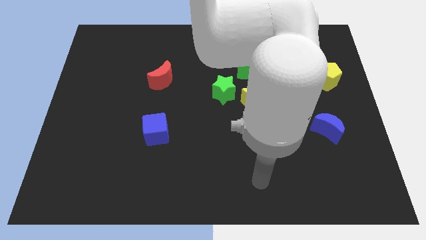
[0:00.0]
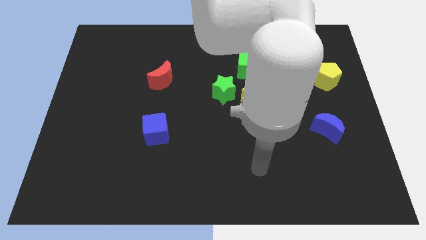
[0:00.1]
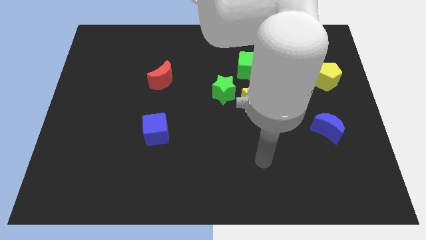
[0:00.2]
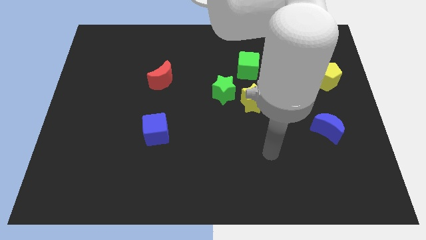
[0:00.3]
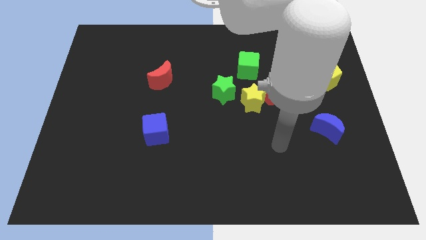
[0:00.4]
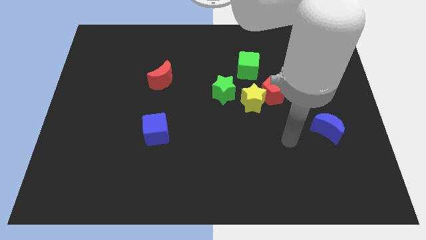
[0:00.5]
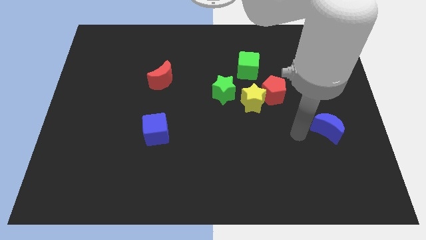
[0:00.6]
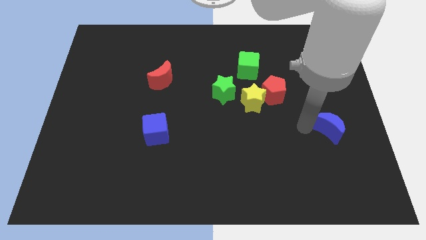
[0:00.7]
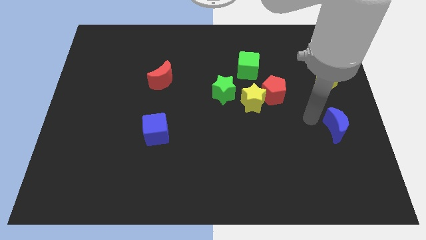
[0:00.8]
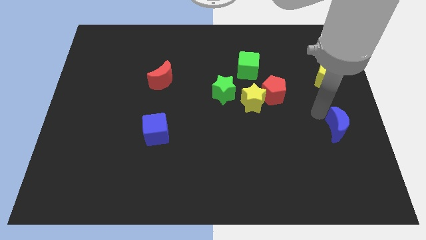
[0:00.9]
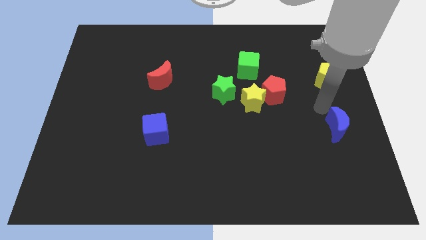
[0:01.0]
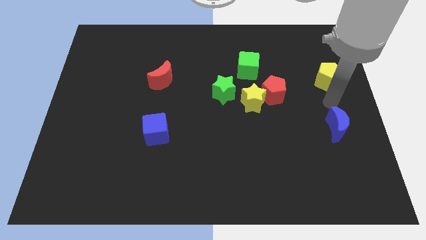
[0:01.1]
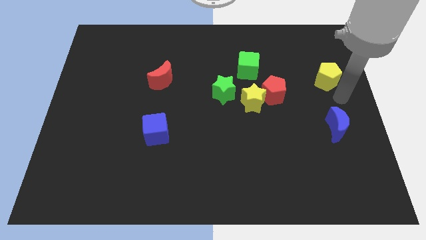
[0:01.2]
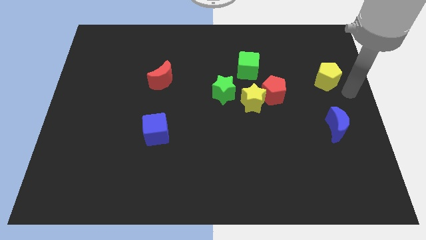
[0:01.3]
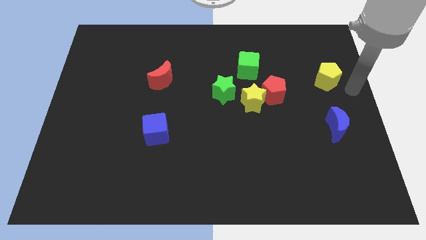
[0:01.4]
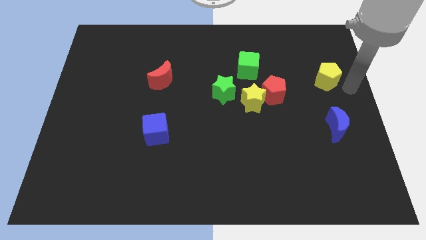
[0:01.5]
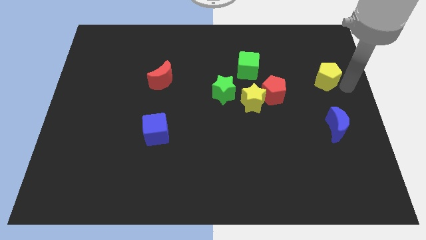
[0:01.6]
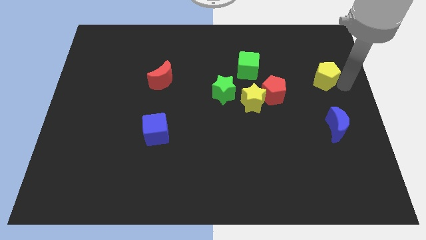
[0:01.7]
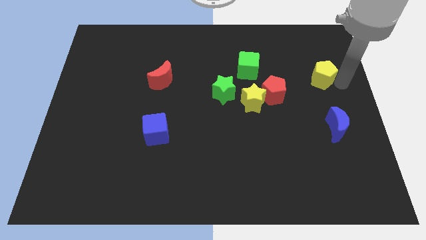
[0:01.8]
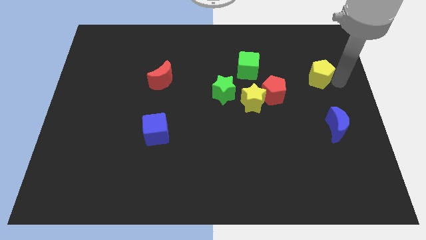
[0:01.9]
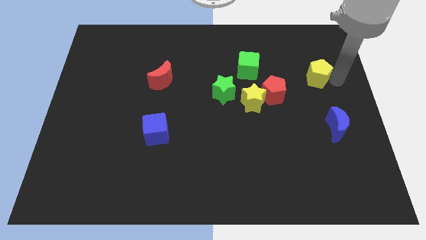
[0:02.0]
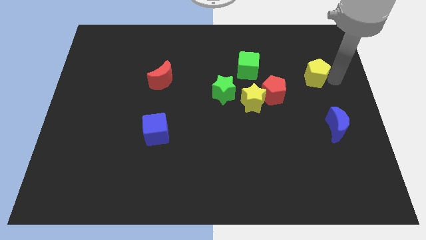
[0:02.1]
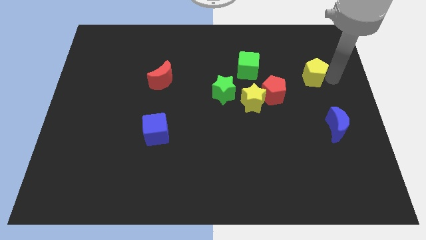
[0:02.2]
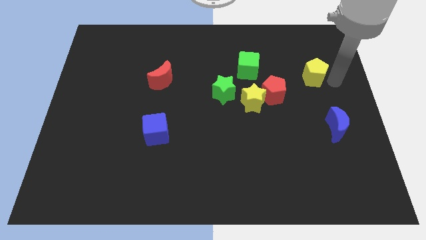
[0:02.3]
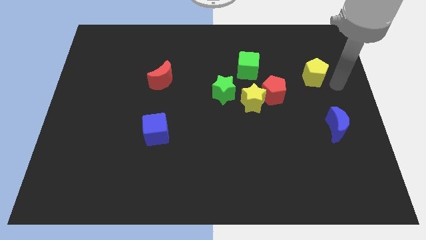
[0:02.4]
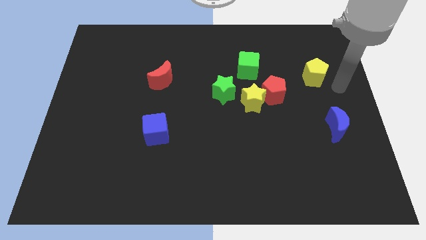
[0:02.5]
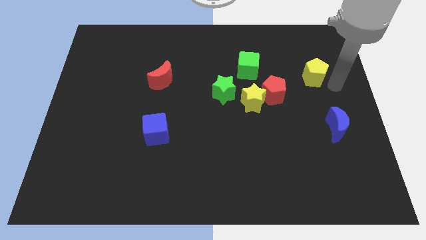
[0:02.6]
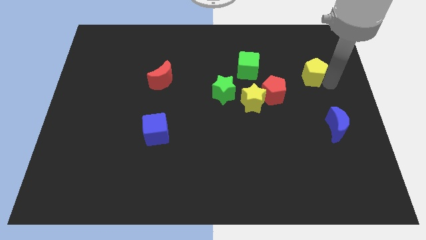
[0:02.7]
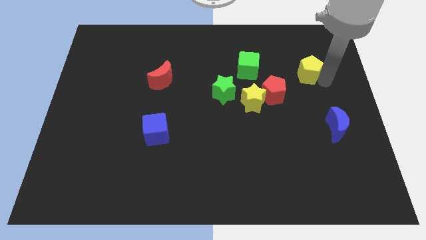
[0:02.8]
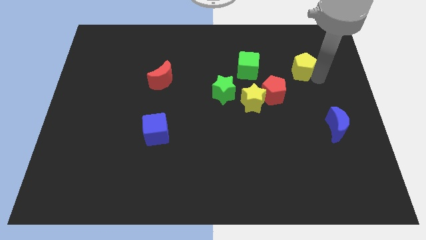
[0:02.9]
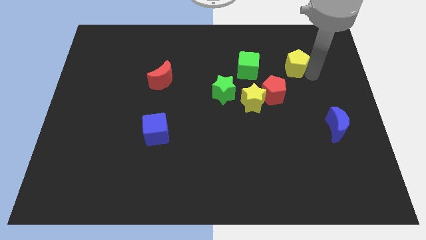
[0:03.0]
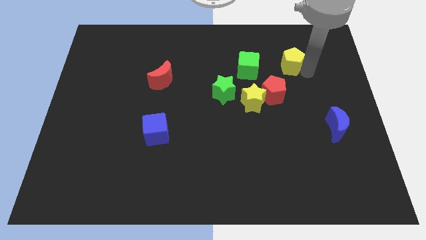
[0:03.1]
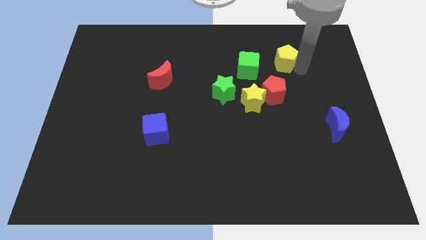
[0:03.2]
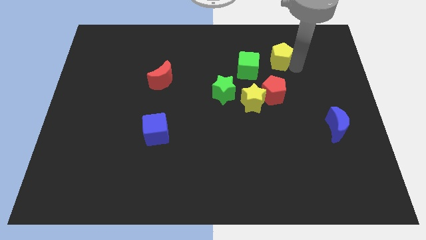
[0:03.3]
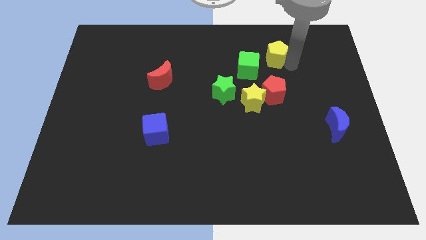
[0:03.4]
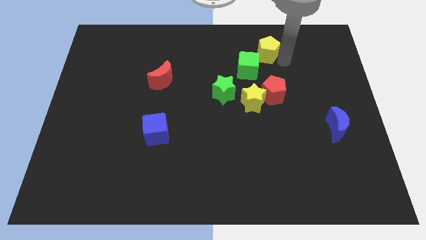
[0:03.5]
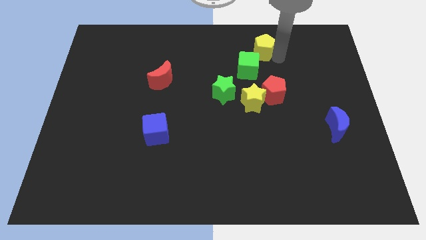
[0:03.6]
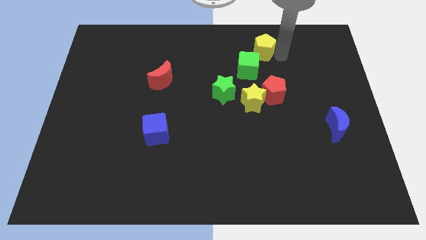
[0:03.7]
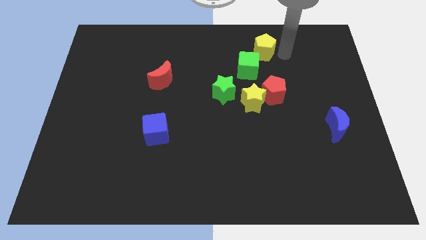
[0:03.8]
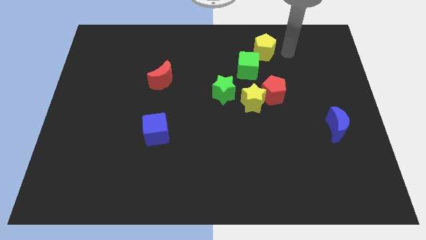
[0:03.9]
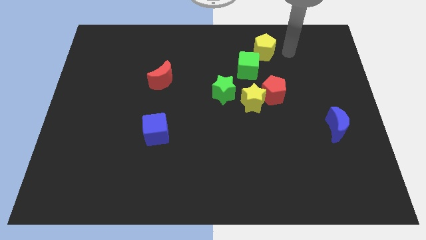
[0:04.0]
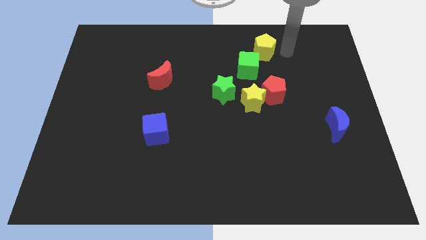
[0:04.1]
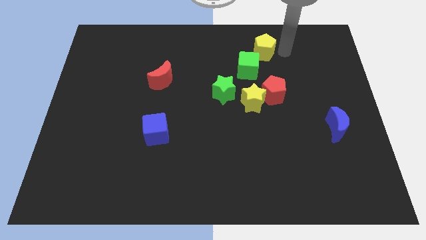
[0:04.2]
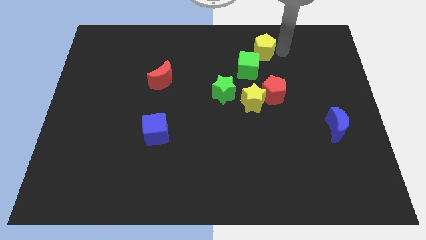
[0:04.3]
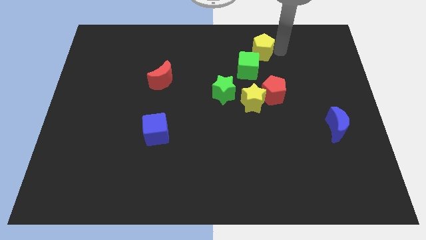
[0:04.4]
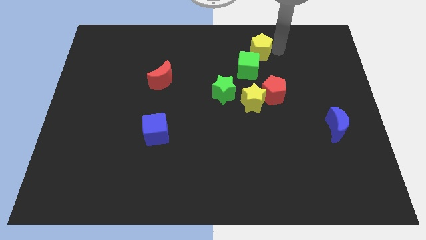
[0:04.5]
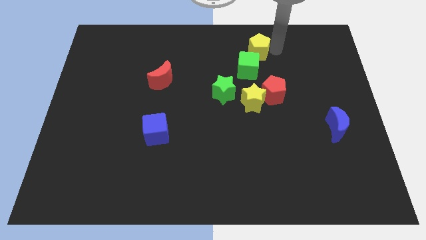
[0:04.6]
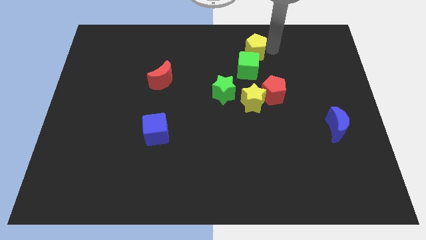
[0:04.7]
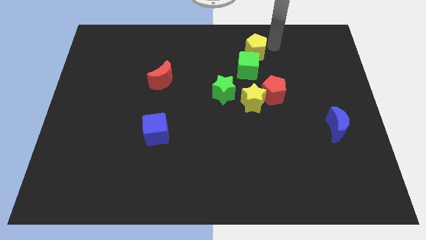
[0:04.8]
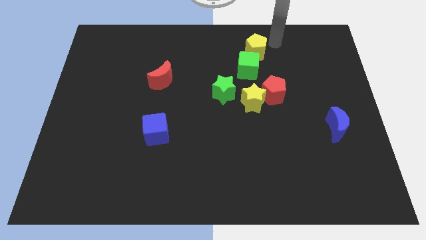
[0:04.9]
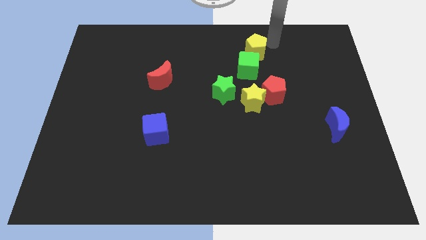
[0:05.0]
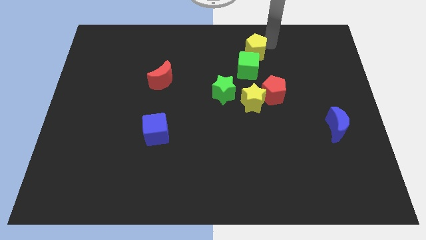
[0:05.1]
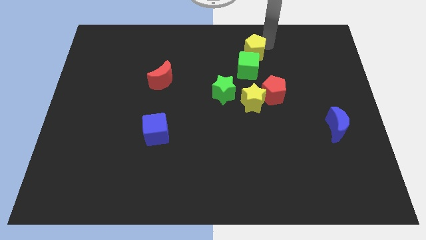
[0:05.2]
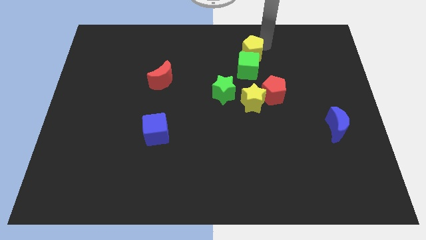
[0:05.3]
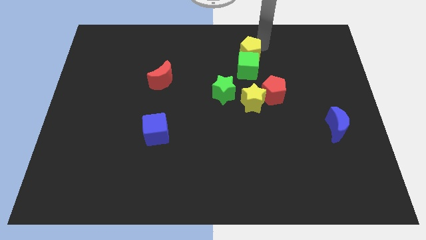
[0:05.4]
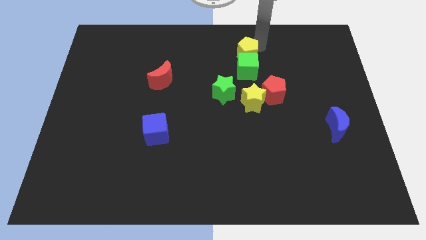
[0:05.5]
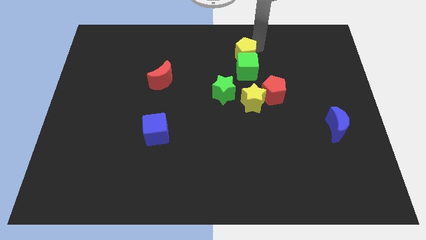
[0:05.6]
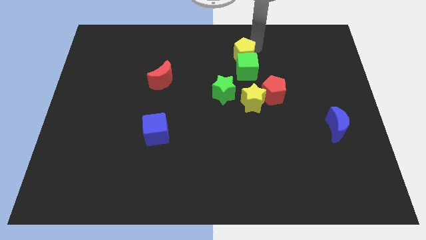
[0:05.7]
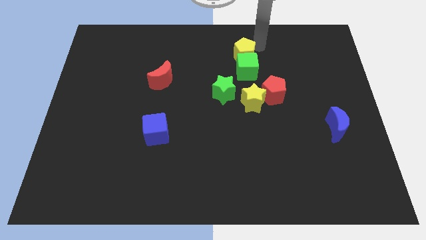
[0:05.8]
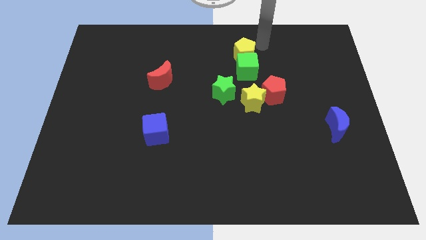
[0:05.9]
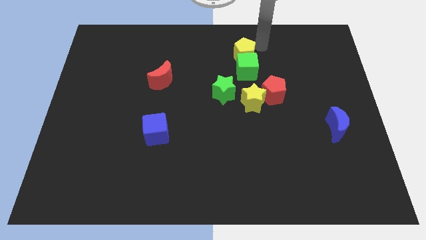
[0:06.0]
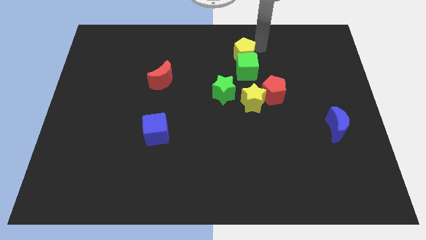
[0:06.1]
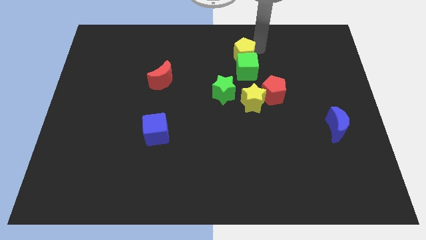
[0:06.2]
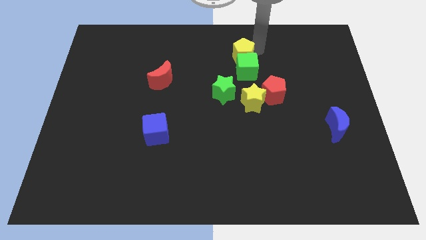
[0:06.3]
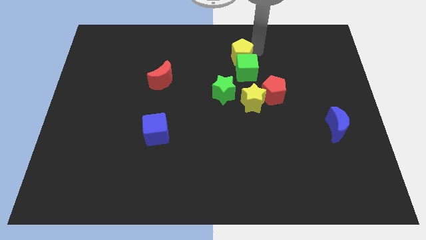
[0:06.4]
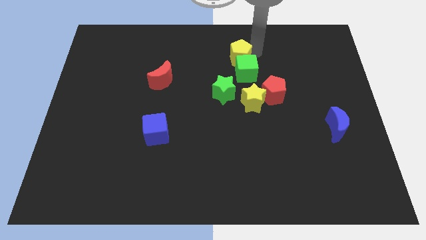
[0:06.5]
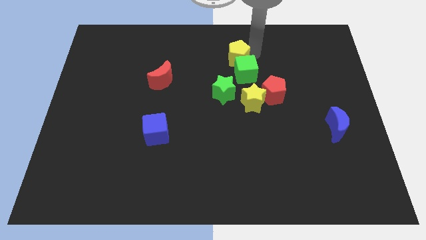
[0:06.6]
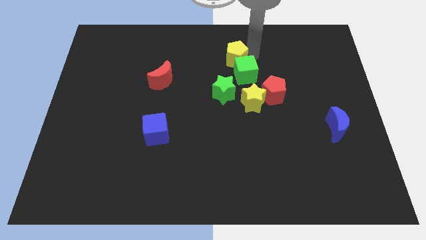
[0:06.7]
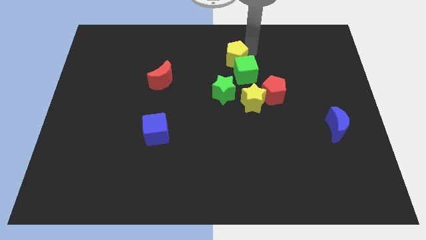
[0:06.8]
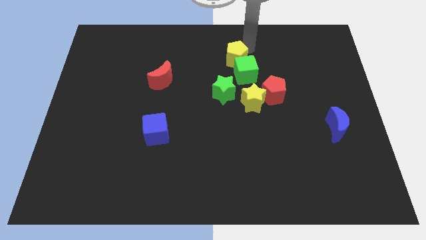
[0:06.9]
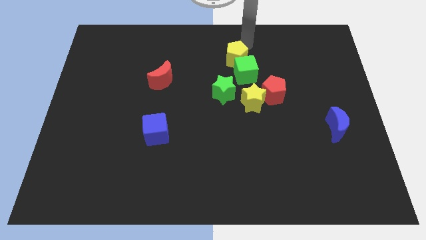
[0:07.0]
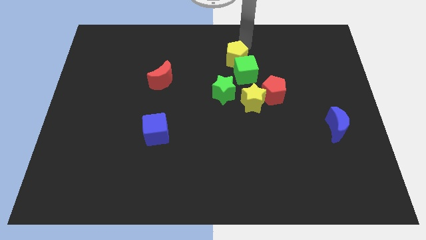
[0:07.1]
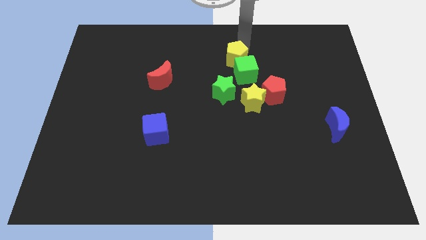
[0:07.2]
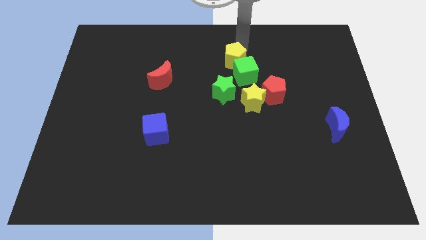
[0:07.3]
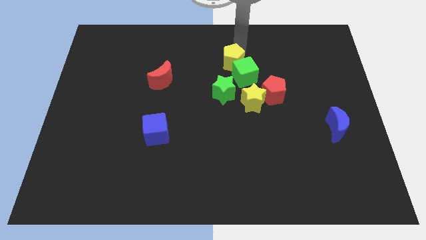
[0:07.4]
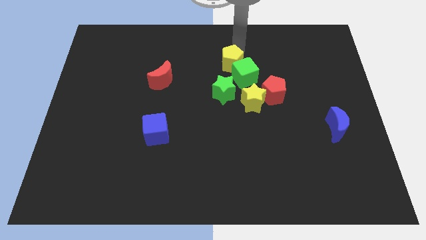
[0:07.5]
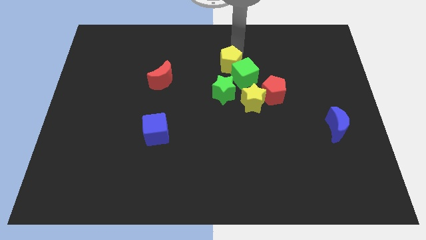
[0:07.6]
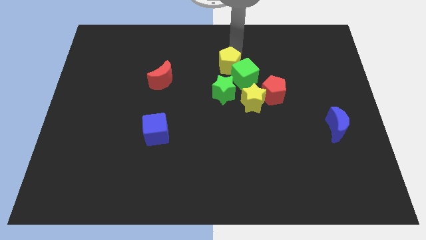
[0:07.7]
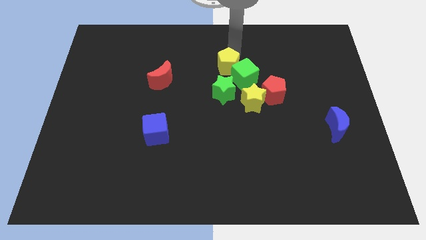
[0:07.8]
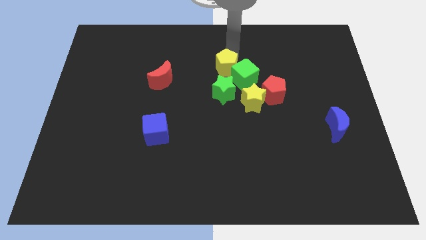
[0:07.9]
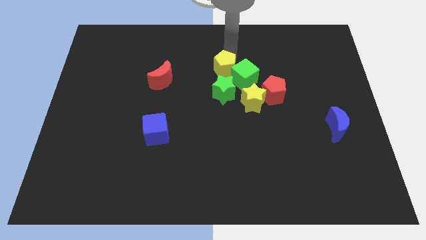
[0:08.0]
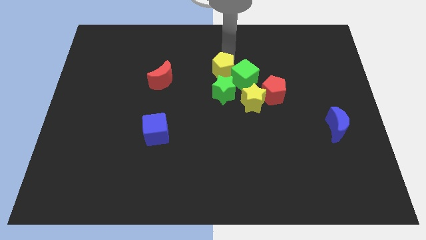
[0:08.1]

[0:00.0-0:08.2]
slide the yellow pentagon diagonally up and to the left of the yellow star
